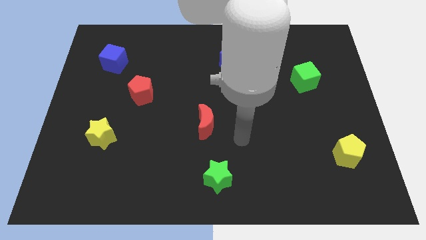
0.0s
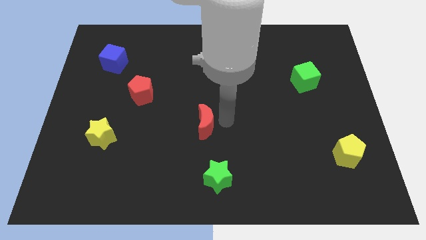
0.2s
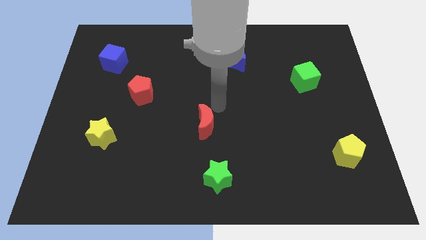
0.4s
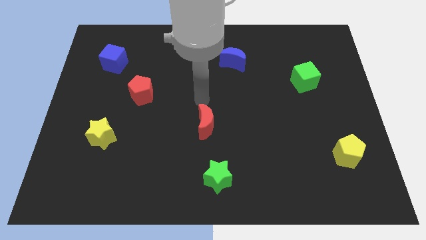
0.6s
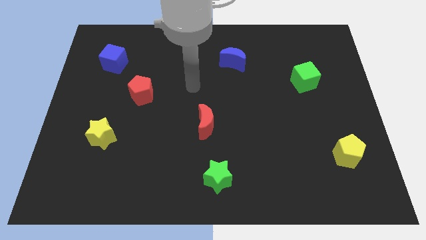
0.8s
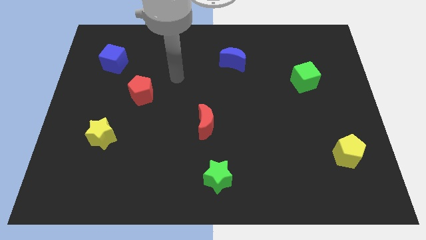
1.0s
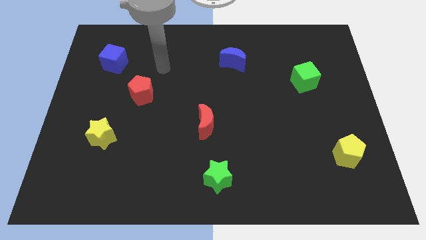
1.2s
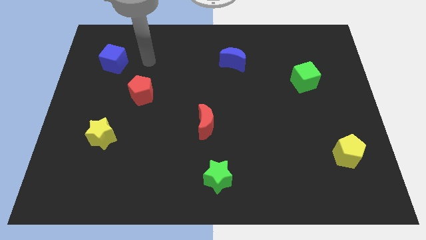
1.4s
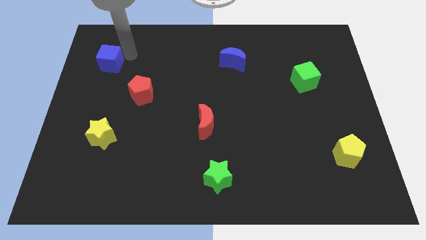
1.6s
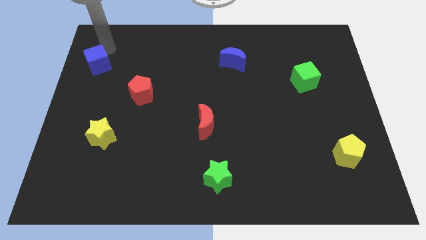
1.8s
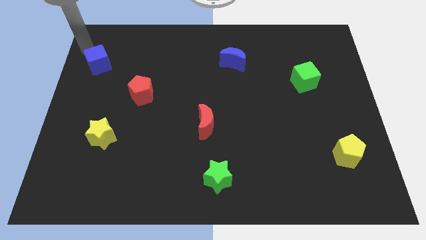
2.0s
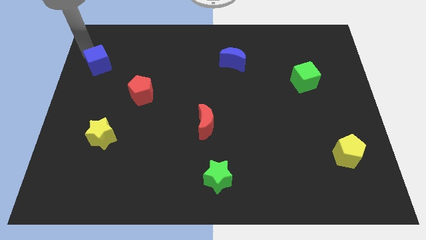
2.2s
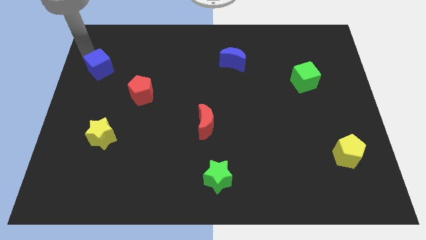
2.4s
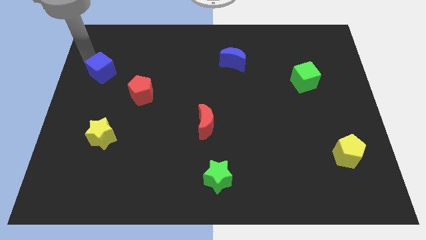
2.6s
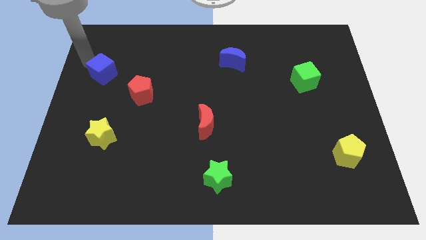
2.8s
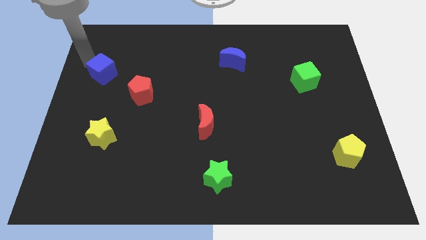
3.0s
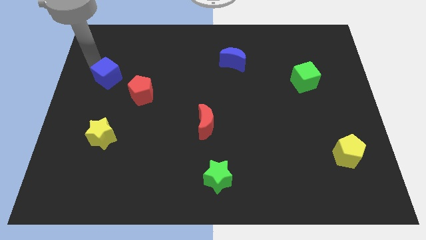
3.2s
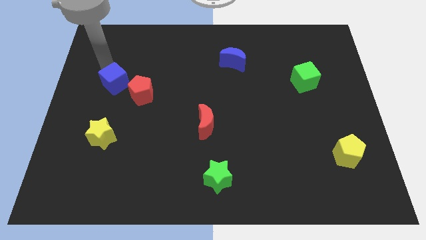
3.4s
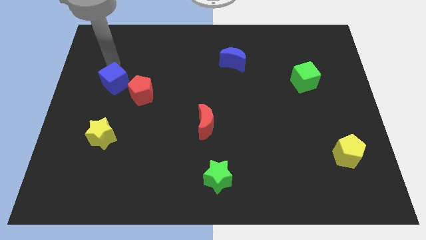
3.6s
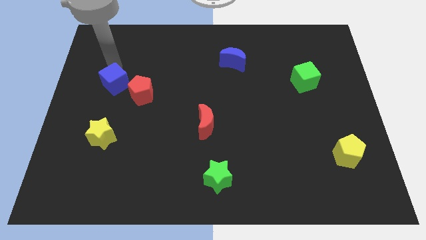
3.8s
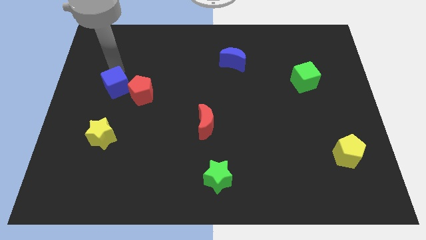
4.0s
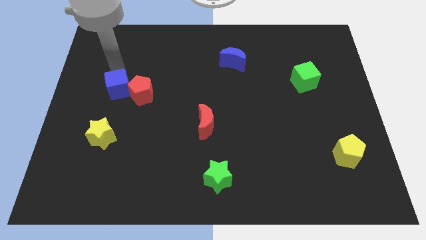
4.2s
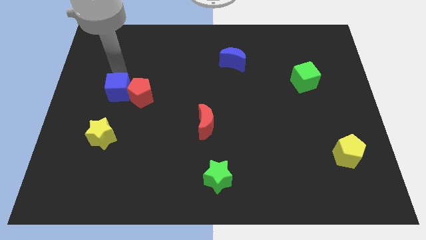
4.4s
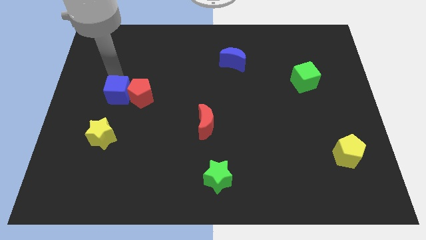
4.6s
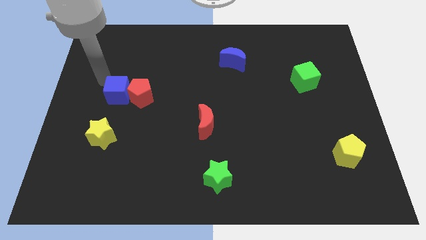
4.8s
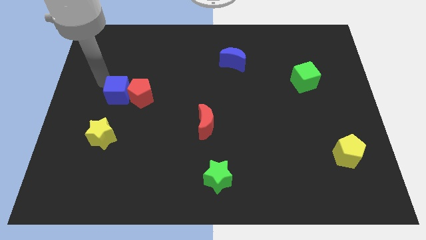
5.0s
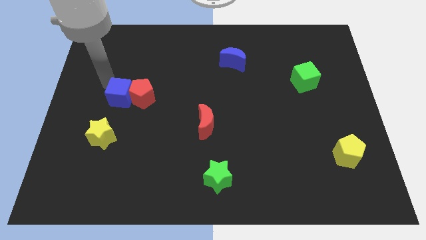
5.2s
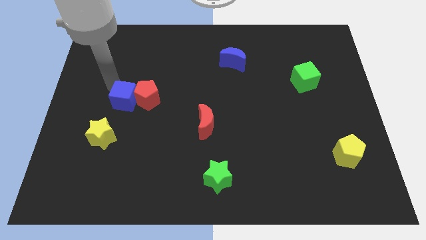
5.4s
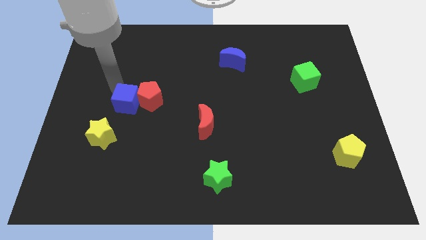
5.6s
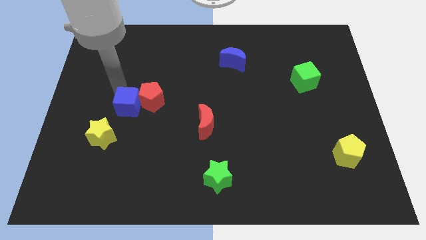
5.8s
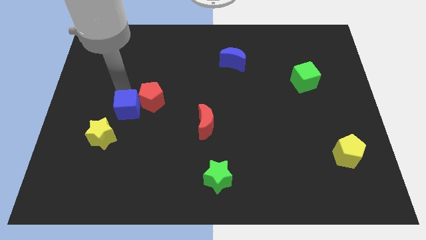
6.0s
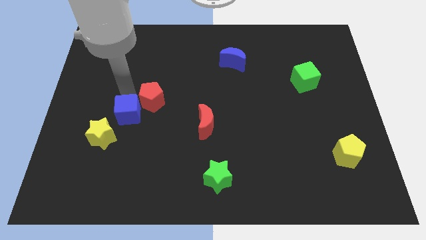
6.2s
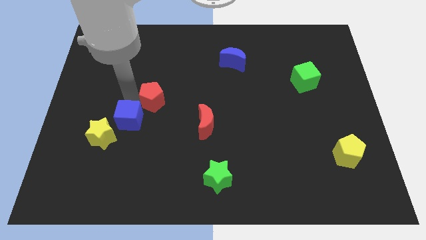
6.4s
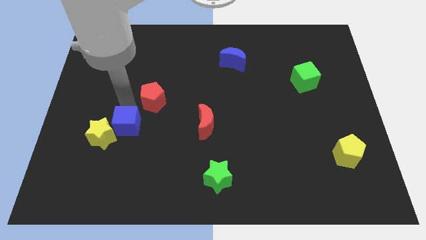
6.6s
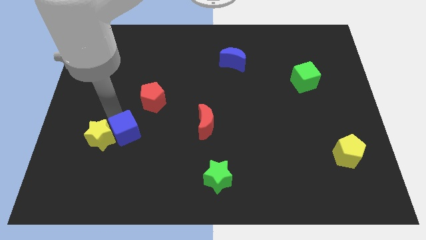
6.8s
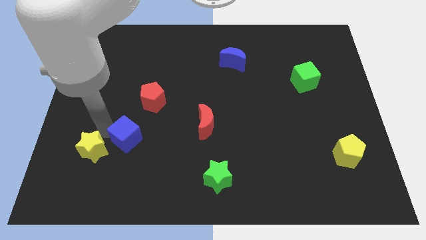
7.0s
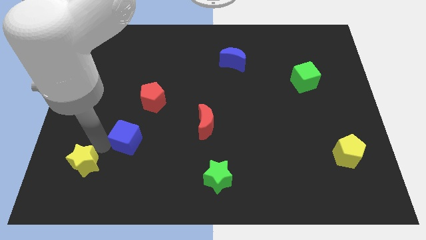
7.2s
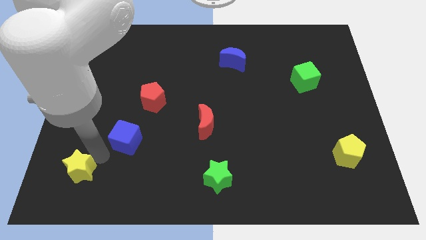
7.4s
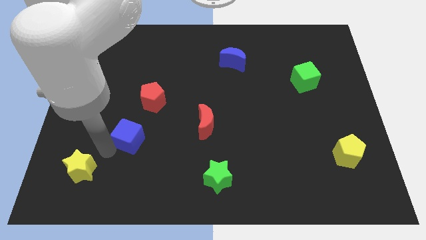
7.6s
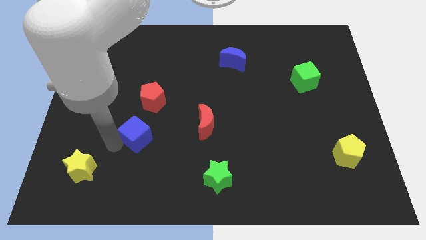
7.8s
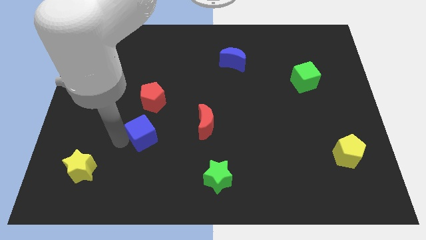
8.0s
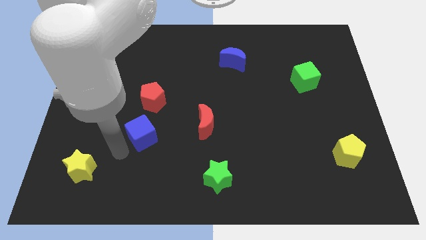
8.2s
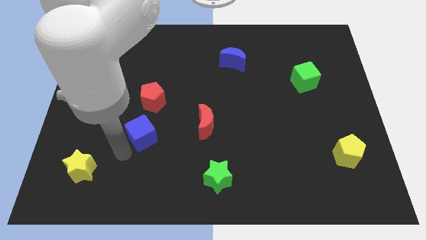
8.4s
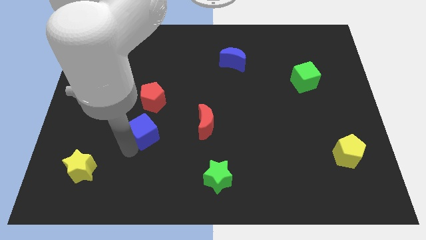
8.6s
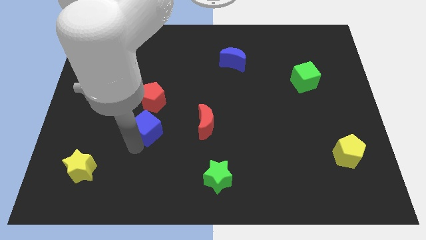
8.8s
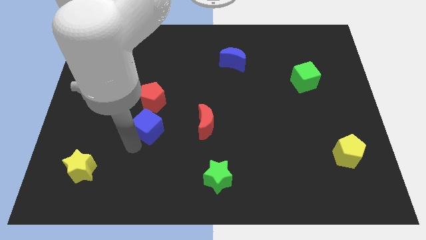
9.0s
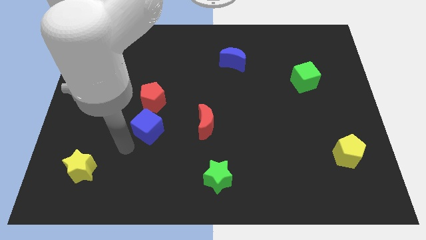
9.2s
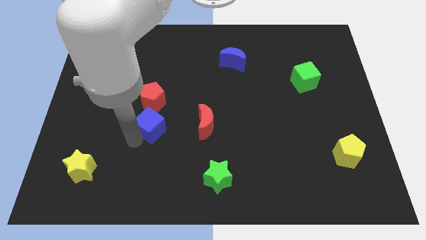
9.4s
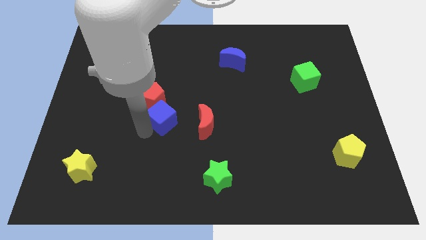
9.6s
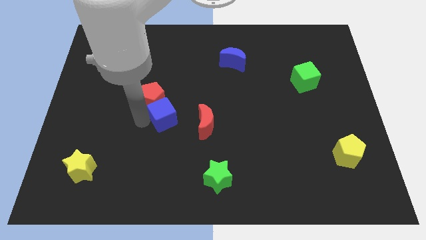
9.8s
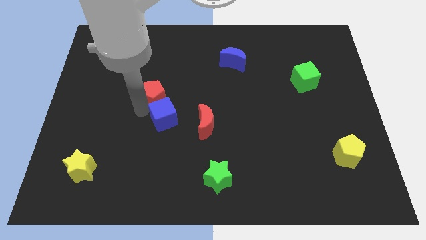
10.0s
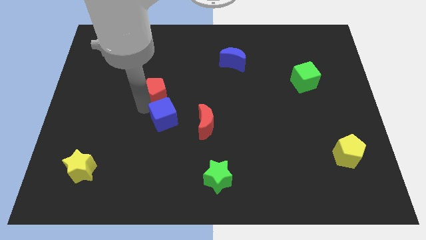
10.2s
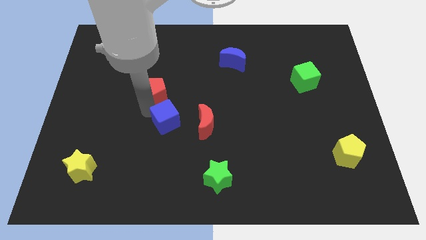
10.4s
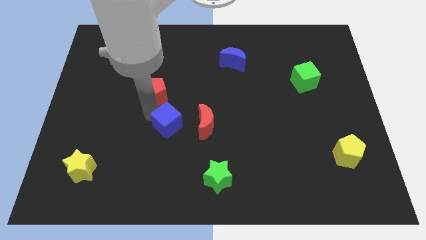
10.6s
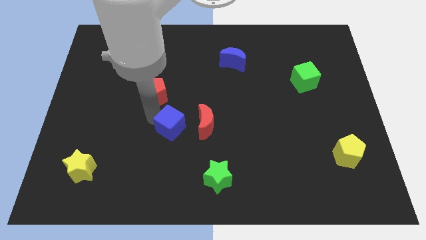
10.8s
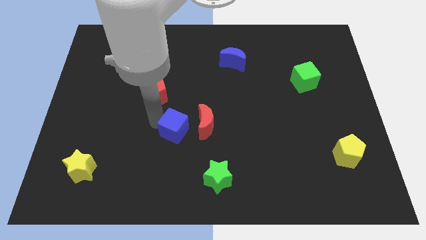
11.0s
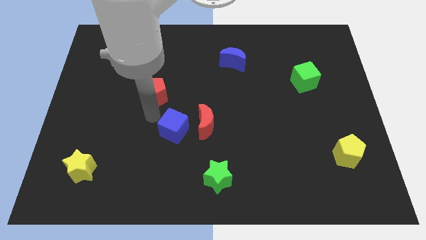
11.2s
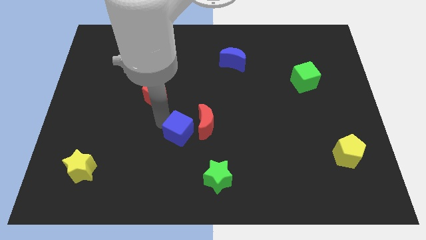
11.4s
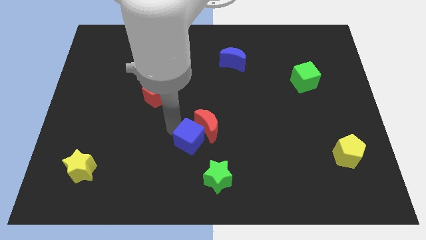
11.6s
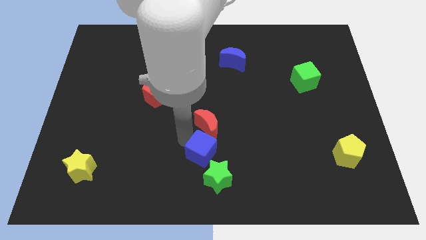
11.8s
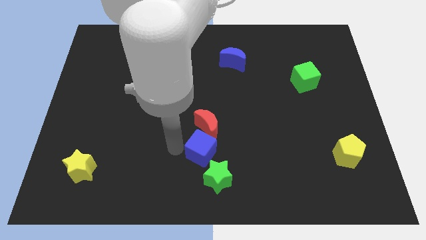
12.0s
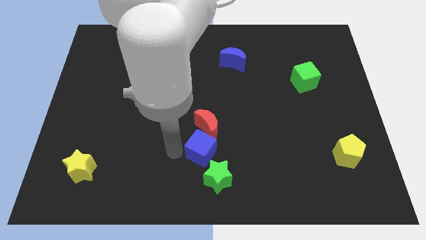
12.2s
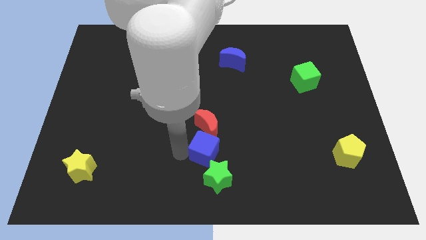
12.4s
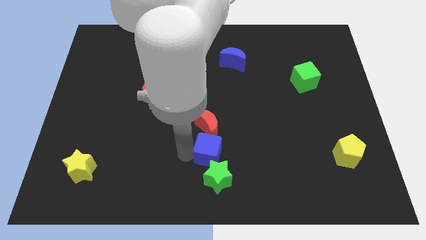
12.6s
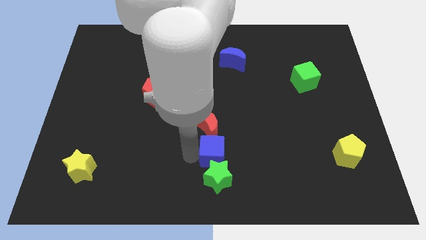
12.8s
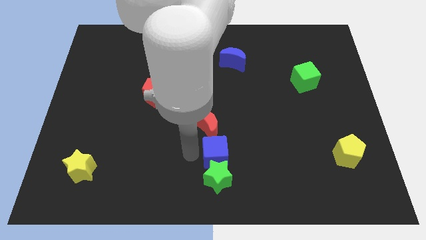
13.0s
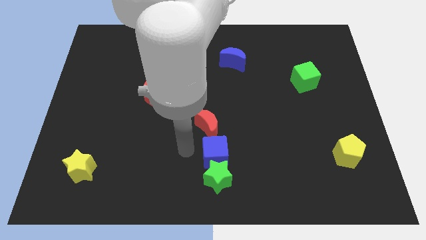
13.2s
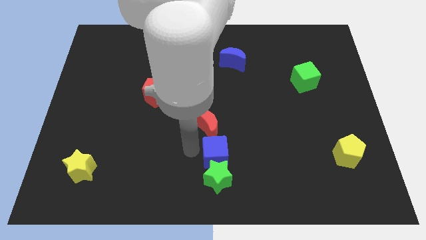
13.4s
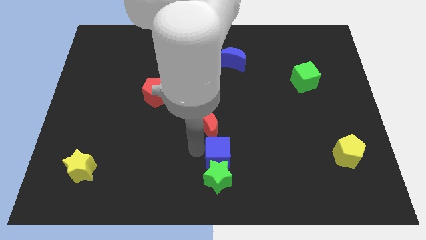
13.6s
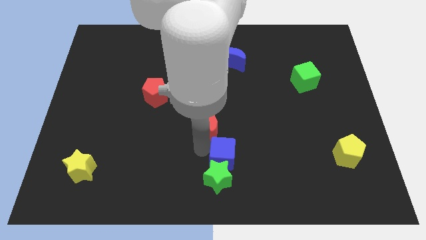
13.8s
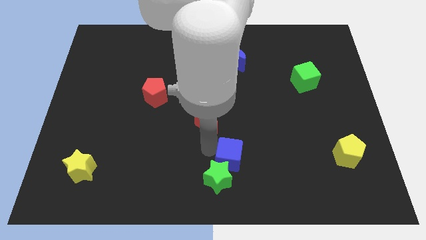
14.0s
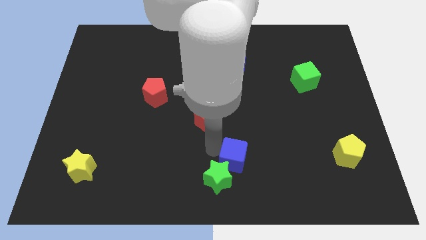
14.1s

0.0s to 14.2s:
move the blue cube right of the green star

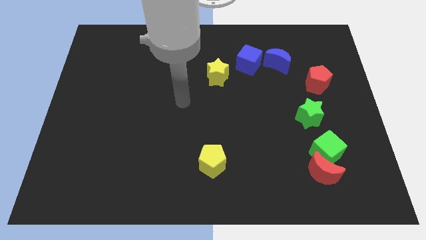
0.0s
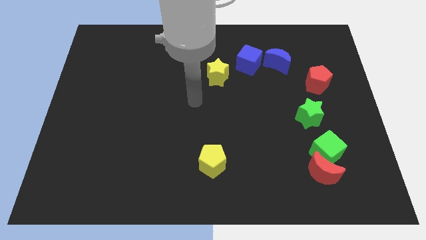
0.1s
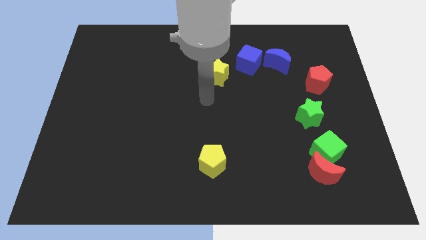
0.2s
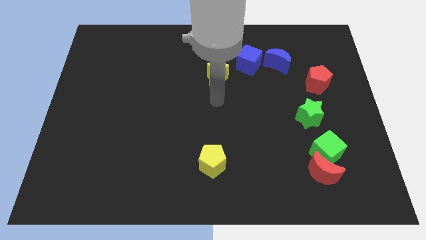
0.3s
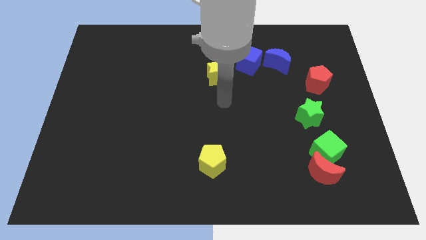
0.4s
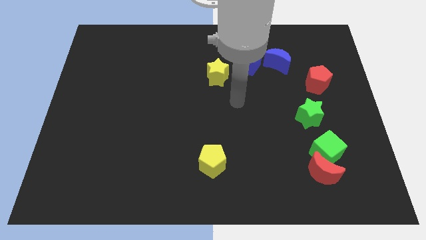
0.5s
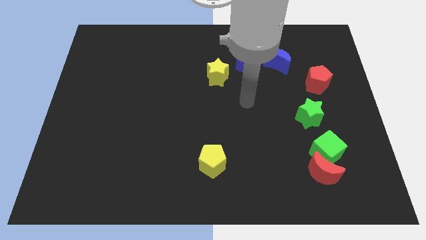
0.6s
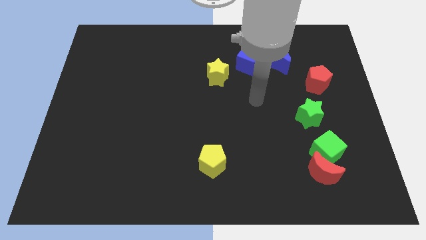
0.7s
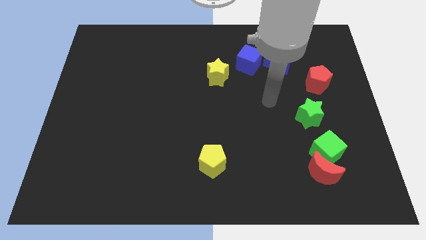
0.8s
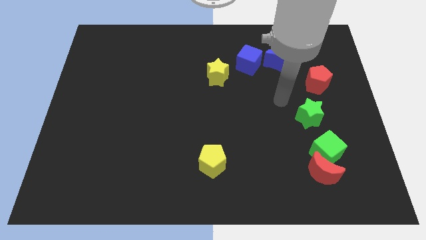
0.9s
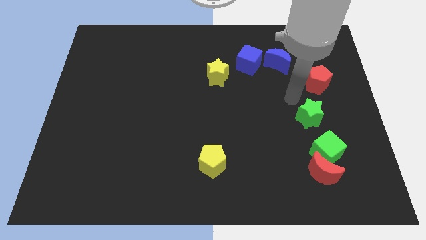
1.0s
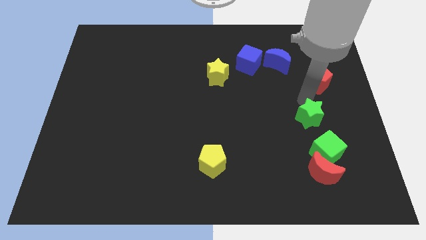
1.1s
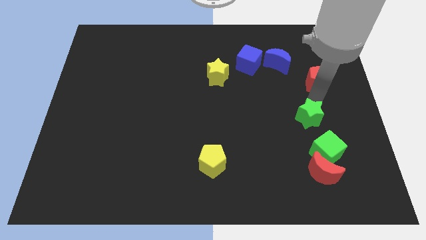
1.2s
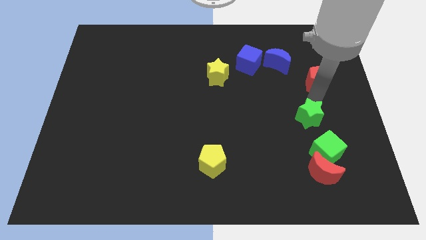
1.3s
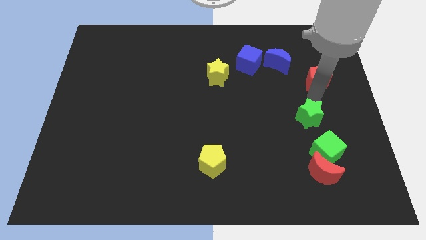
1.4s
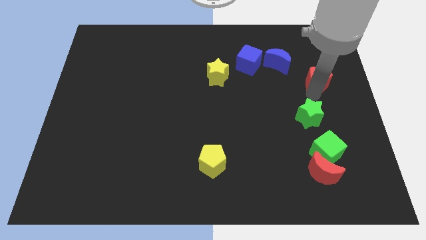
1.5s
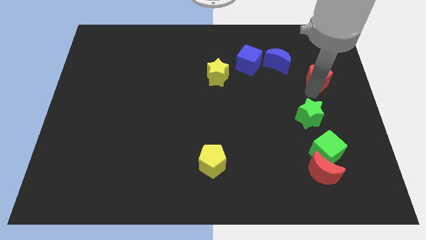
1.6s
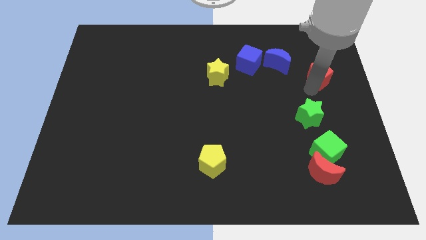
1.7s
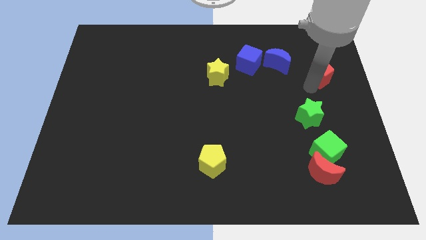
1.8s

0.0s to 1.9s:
slide the red pentagon right of the blue moon
